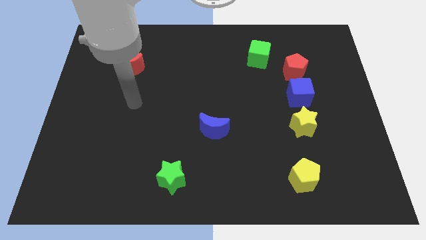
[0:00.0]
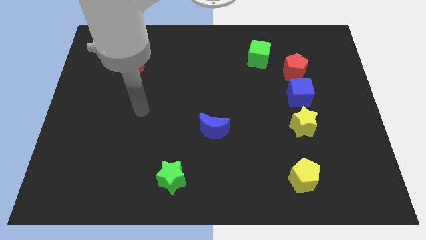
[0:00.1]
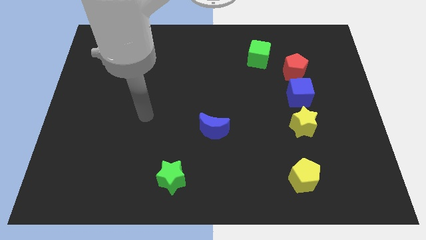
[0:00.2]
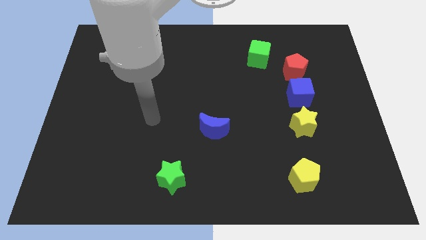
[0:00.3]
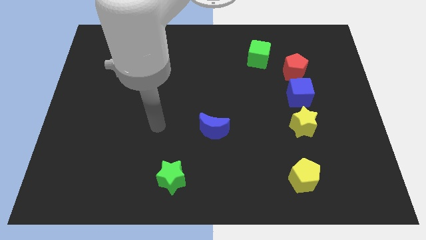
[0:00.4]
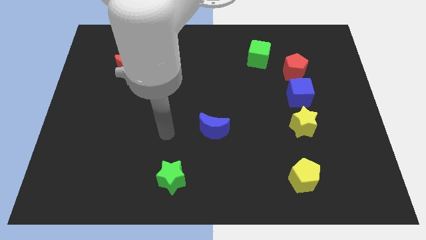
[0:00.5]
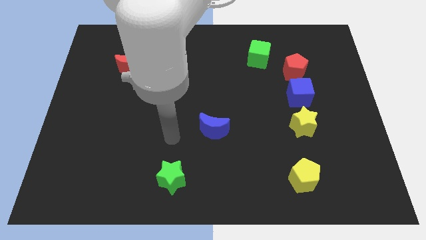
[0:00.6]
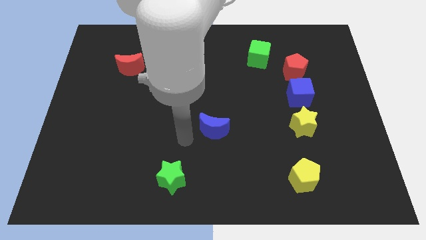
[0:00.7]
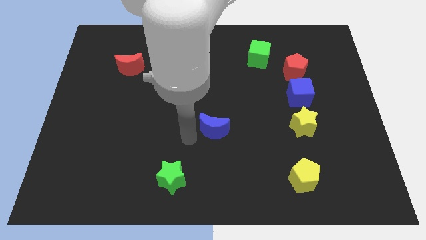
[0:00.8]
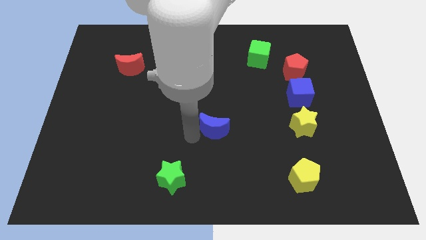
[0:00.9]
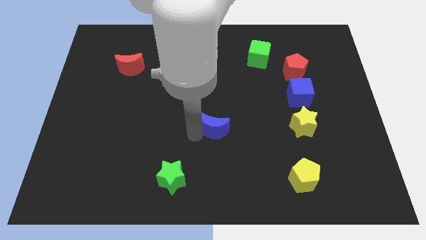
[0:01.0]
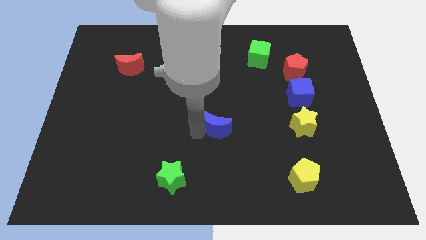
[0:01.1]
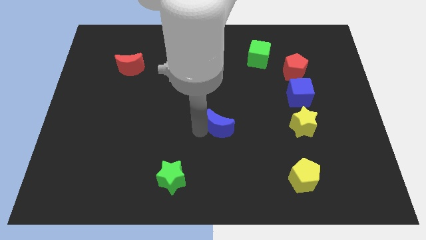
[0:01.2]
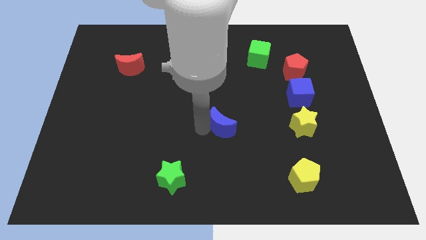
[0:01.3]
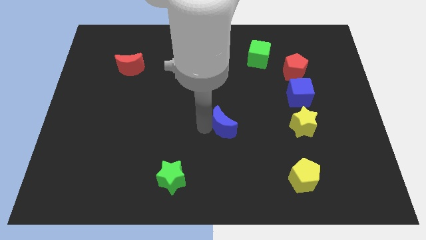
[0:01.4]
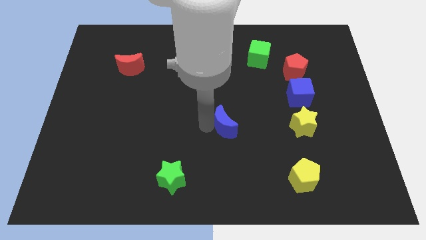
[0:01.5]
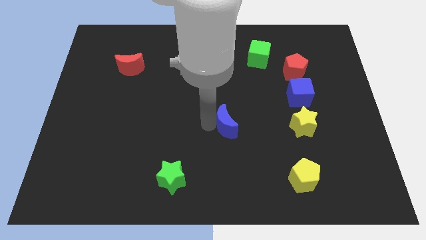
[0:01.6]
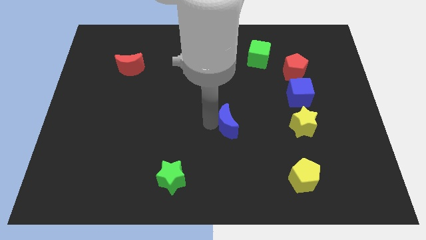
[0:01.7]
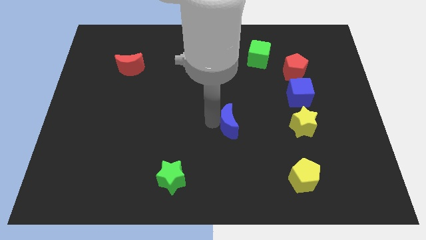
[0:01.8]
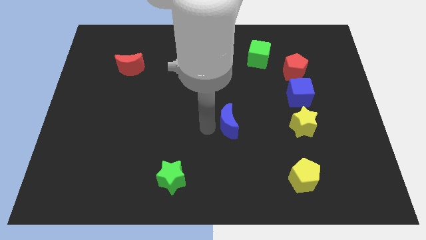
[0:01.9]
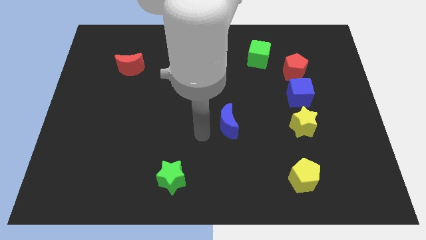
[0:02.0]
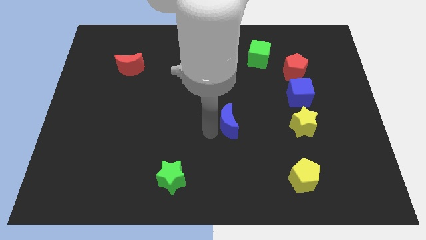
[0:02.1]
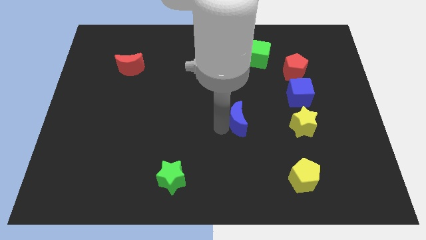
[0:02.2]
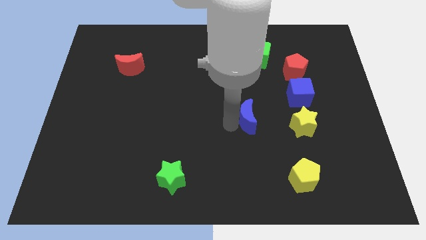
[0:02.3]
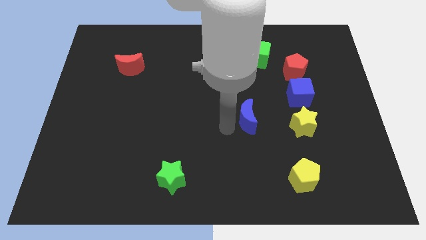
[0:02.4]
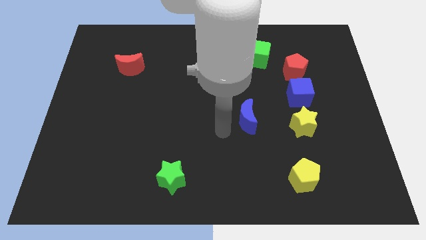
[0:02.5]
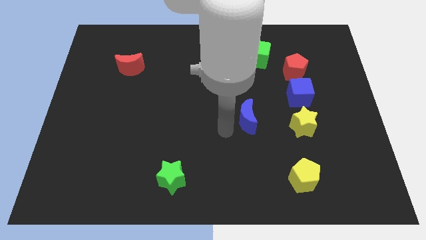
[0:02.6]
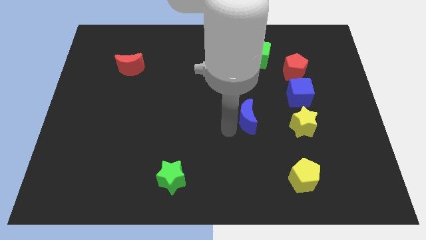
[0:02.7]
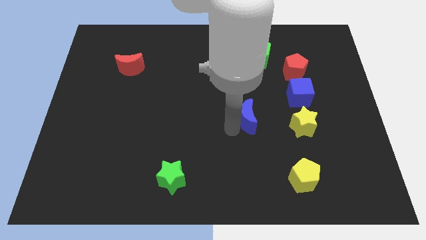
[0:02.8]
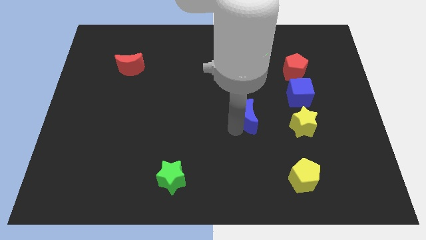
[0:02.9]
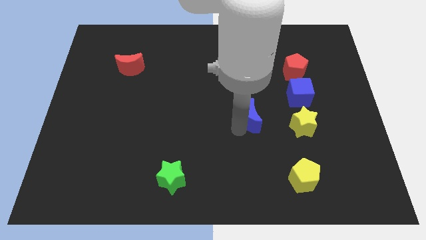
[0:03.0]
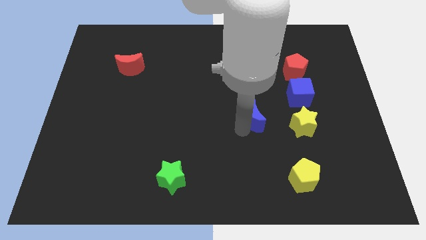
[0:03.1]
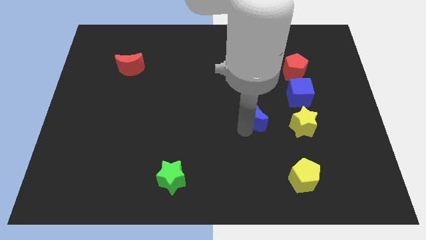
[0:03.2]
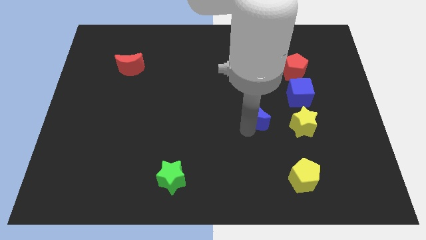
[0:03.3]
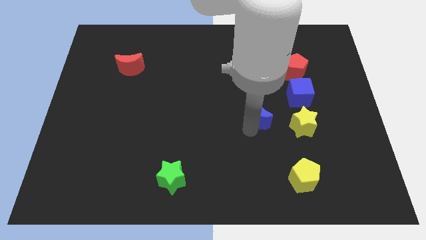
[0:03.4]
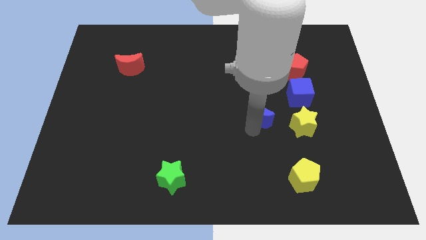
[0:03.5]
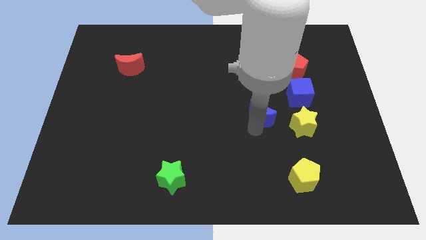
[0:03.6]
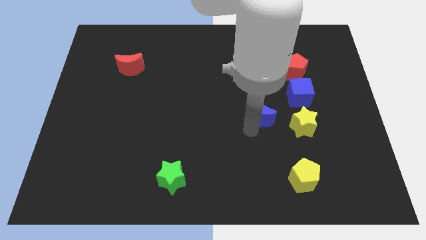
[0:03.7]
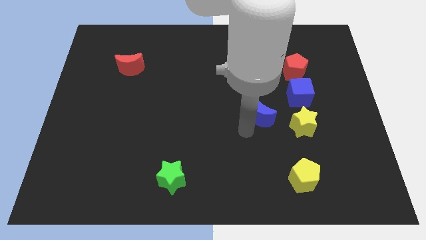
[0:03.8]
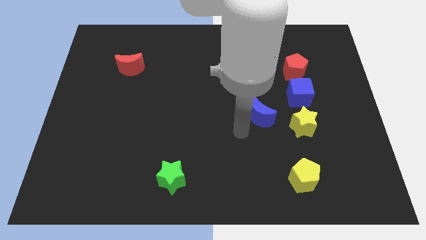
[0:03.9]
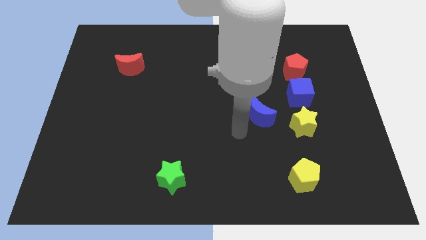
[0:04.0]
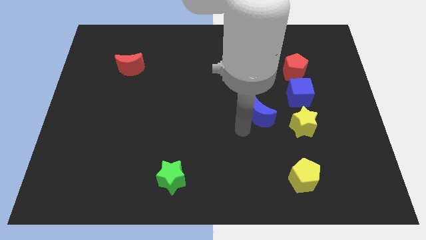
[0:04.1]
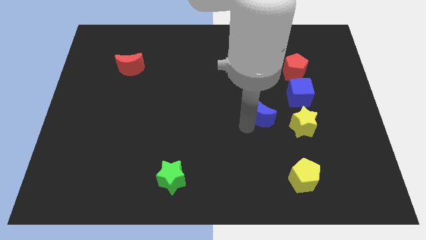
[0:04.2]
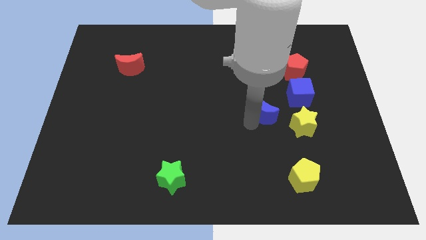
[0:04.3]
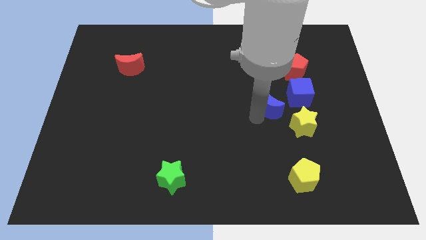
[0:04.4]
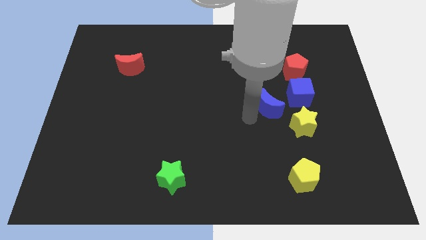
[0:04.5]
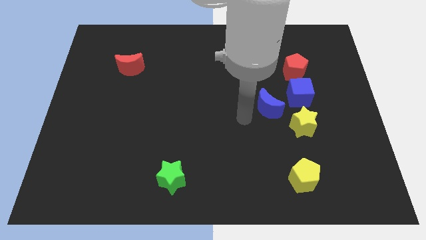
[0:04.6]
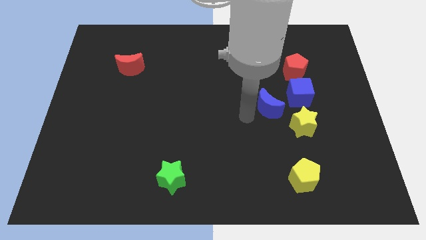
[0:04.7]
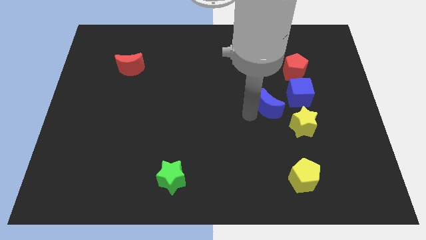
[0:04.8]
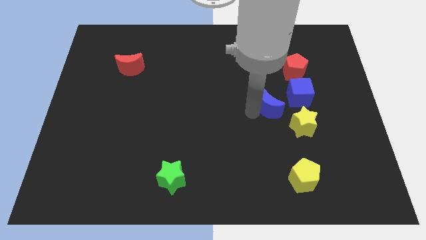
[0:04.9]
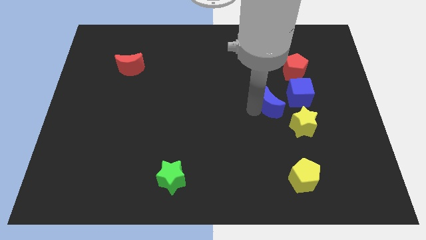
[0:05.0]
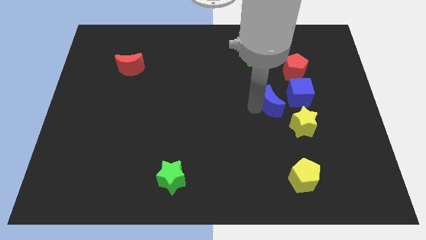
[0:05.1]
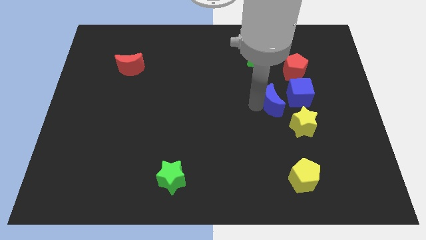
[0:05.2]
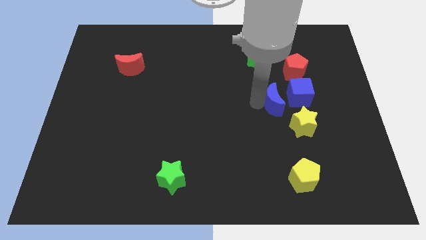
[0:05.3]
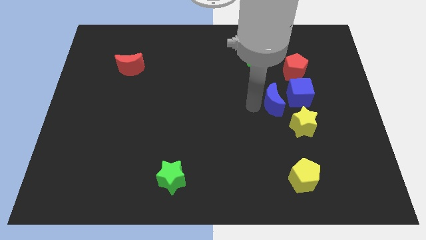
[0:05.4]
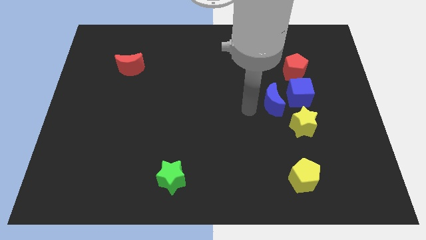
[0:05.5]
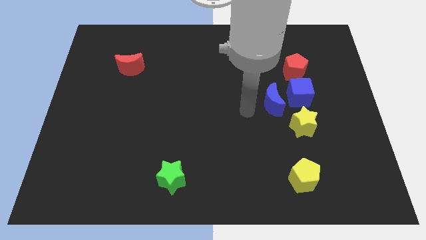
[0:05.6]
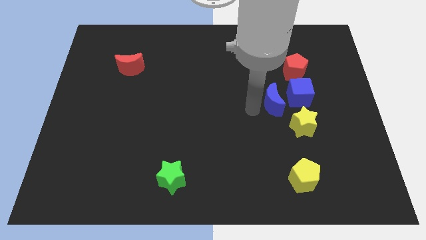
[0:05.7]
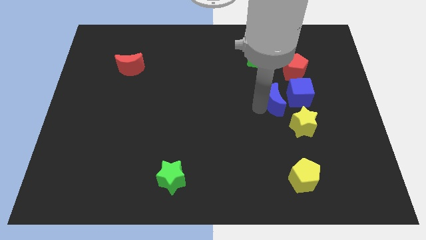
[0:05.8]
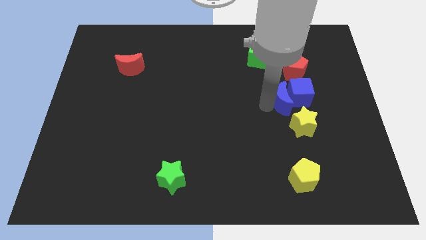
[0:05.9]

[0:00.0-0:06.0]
put the blue moon close to the blue cube

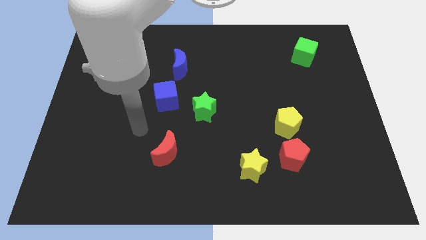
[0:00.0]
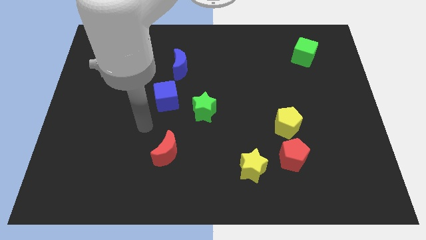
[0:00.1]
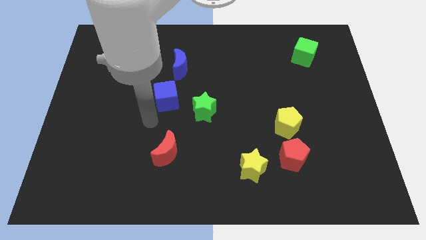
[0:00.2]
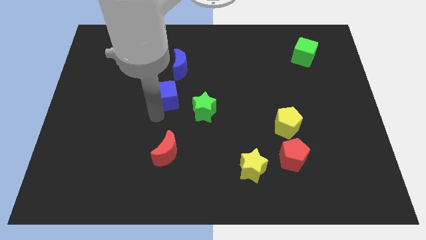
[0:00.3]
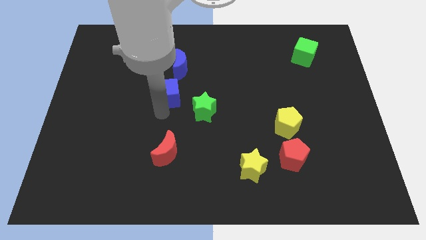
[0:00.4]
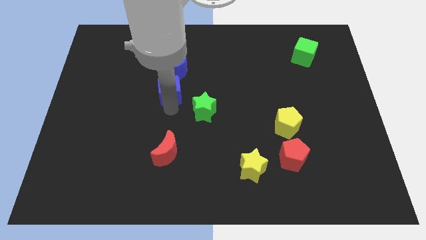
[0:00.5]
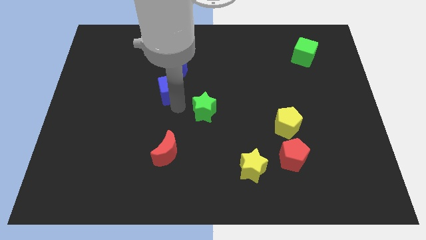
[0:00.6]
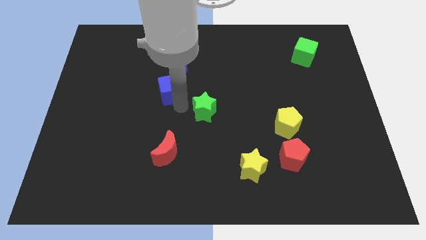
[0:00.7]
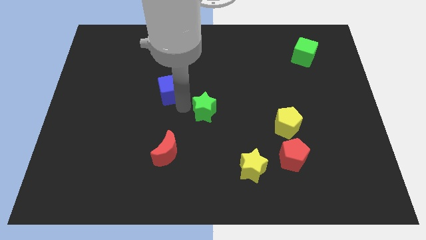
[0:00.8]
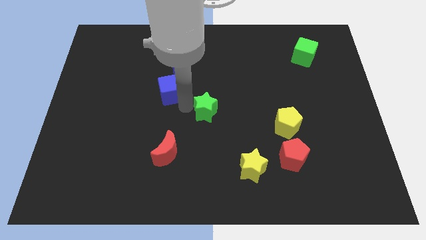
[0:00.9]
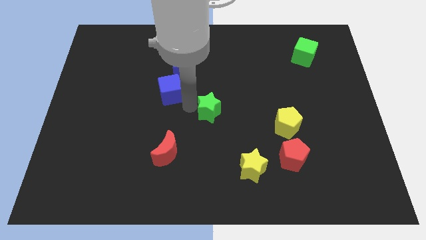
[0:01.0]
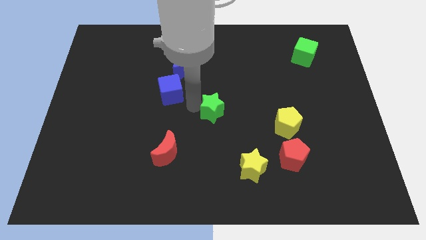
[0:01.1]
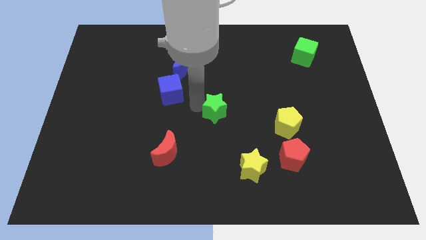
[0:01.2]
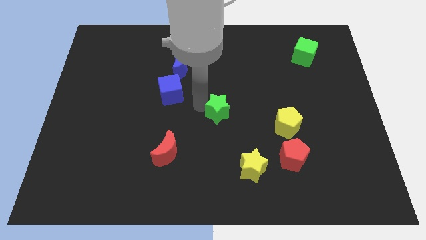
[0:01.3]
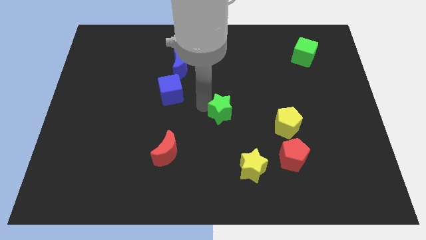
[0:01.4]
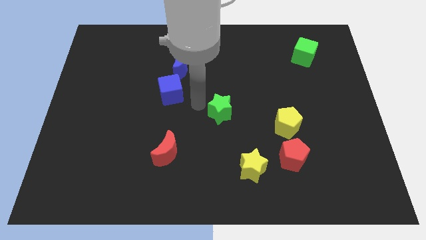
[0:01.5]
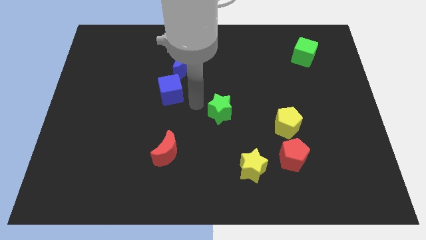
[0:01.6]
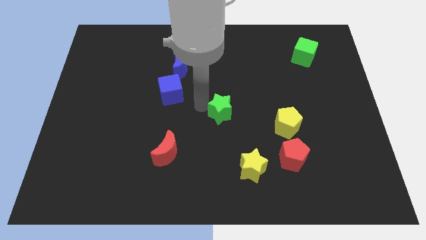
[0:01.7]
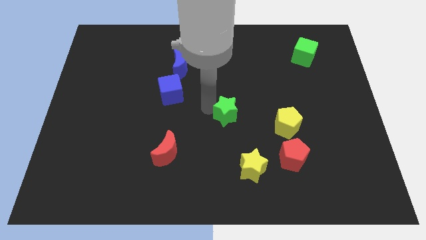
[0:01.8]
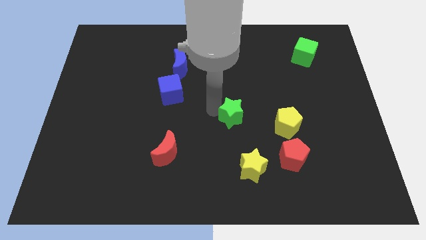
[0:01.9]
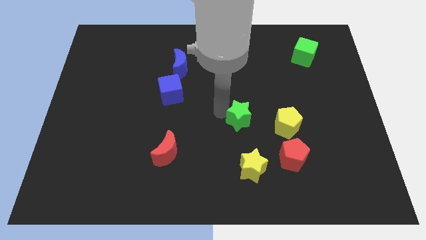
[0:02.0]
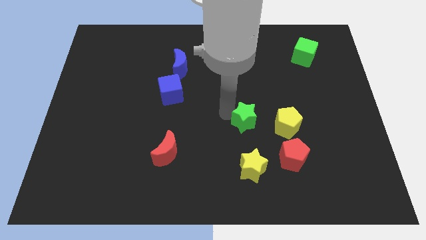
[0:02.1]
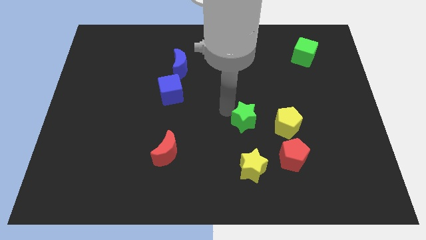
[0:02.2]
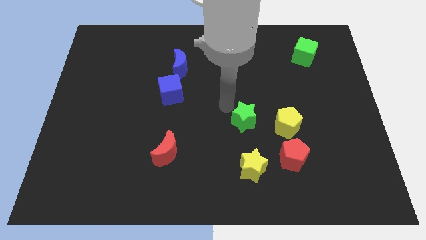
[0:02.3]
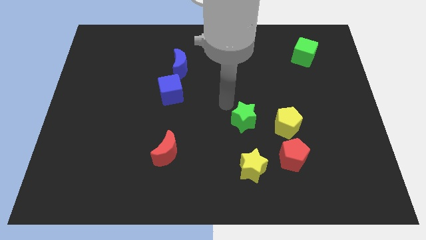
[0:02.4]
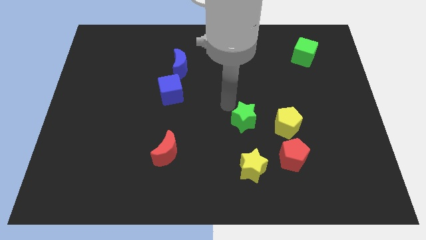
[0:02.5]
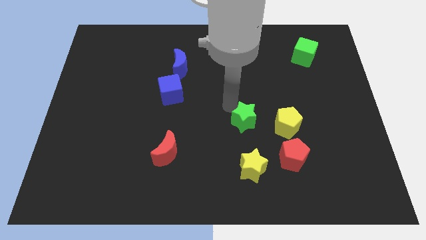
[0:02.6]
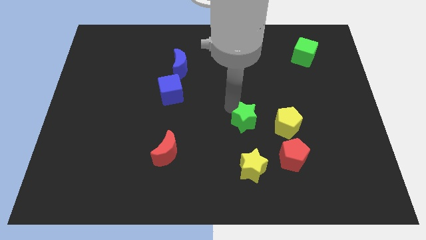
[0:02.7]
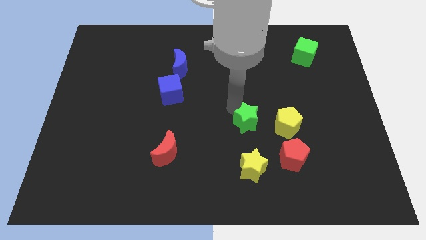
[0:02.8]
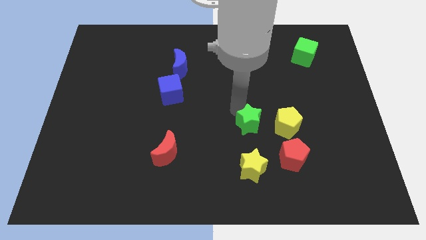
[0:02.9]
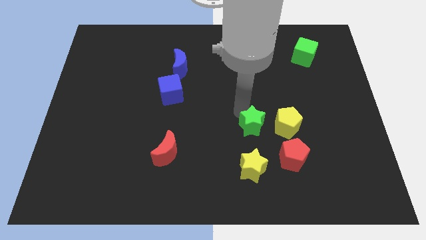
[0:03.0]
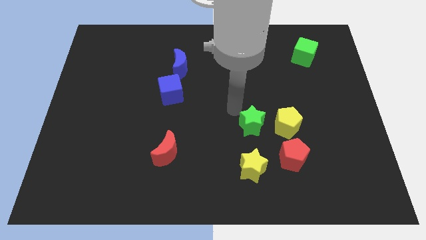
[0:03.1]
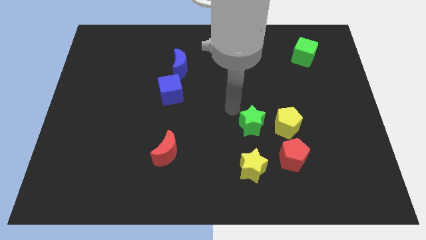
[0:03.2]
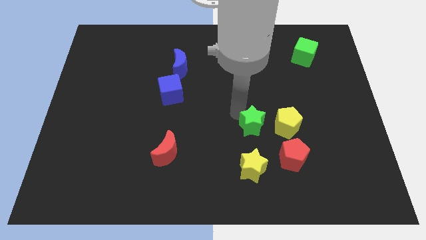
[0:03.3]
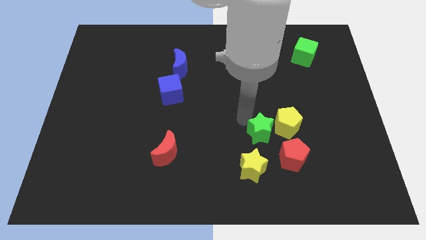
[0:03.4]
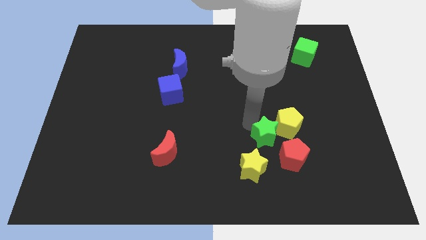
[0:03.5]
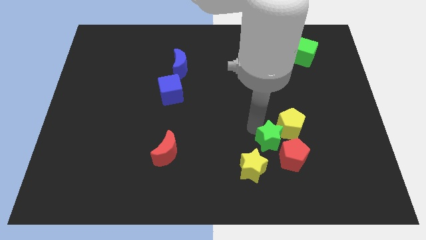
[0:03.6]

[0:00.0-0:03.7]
push the green star next to the red pentagon
